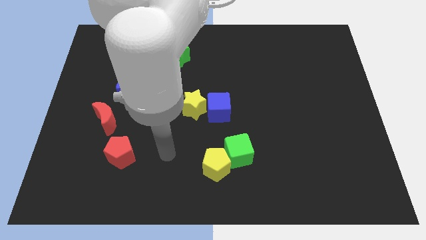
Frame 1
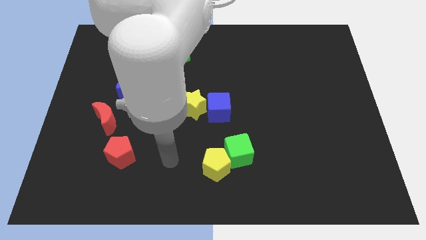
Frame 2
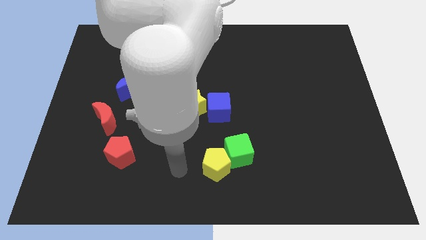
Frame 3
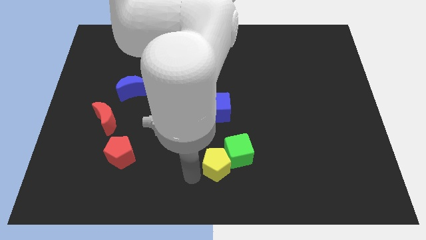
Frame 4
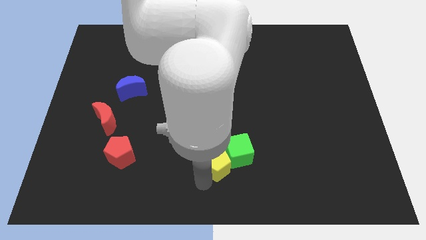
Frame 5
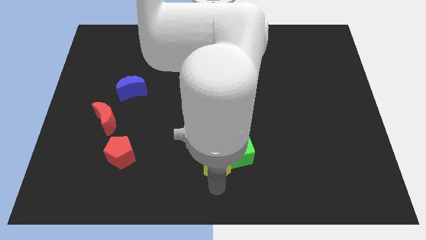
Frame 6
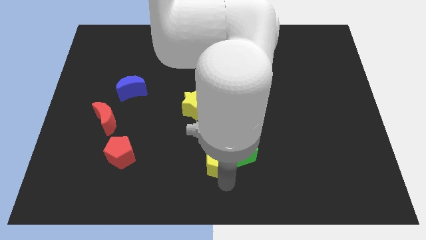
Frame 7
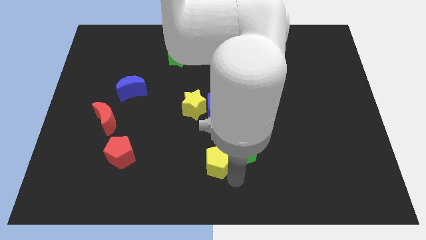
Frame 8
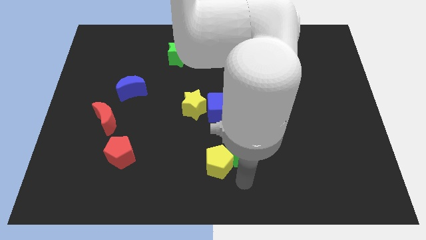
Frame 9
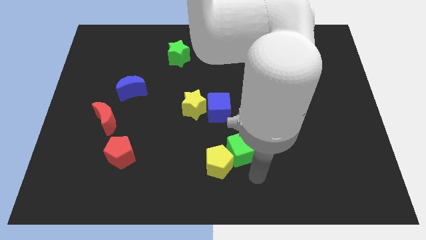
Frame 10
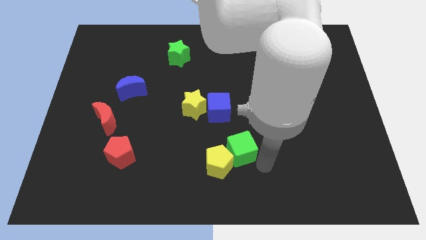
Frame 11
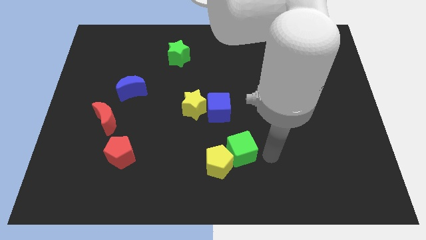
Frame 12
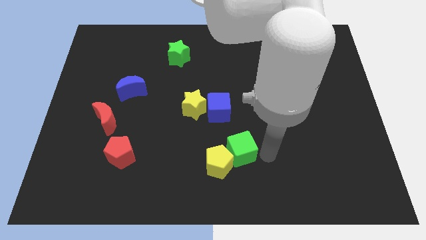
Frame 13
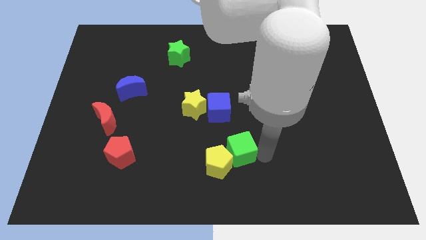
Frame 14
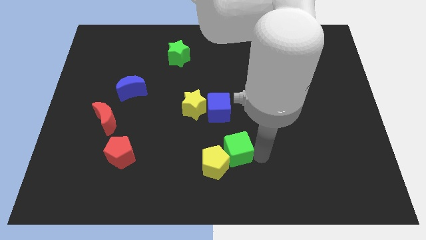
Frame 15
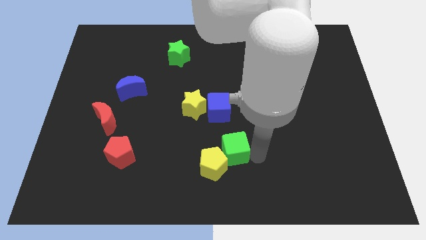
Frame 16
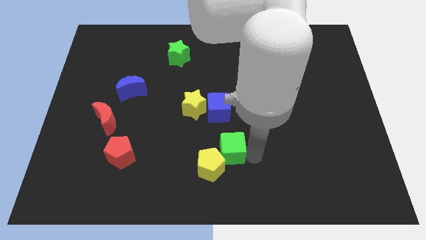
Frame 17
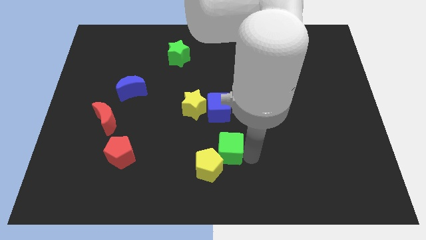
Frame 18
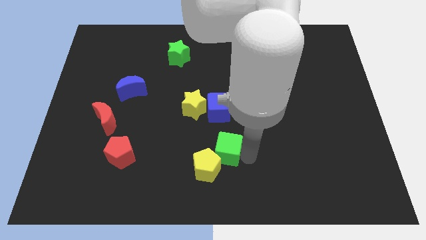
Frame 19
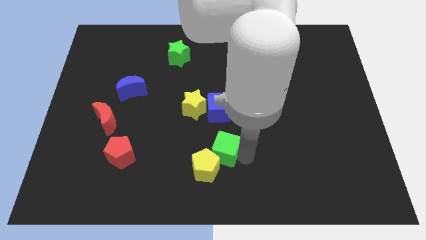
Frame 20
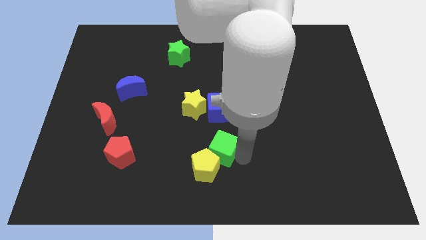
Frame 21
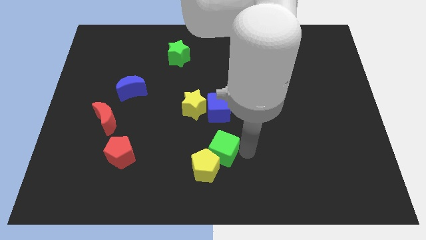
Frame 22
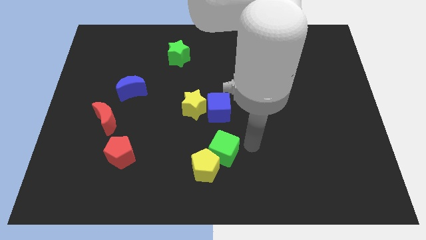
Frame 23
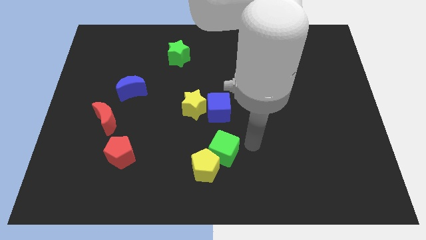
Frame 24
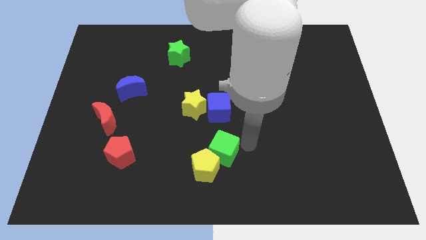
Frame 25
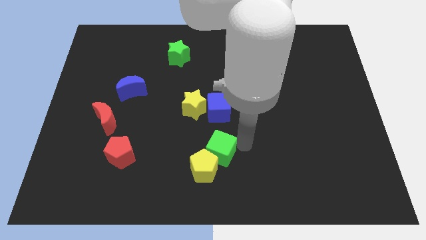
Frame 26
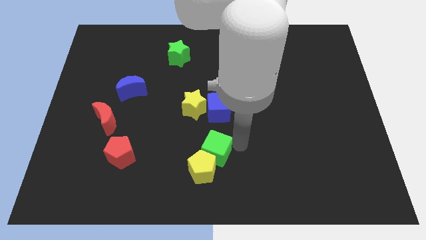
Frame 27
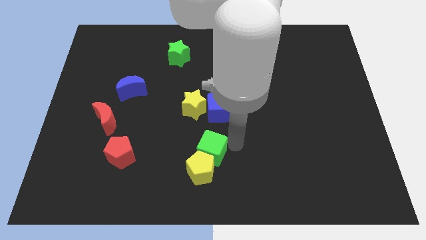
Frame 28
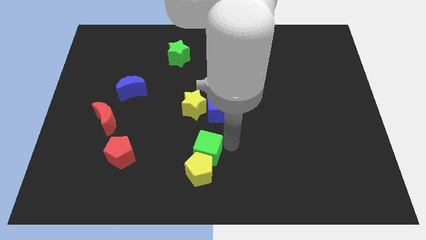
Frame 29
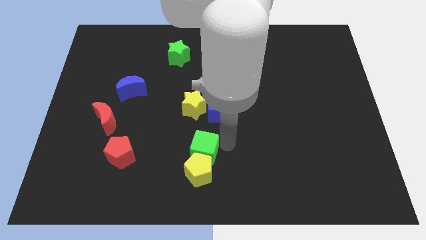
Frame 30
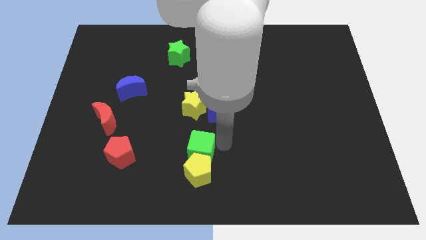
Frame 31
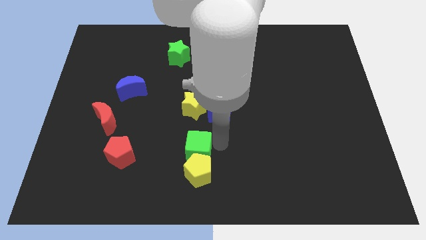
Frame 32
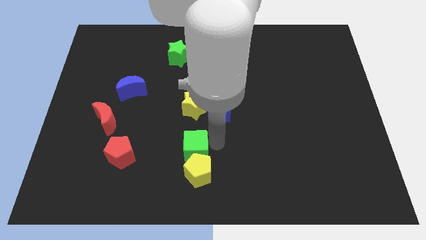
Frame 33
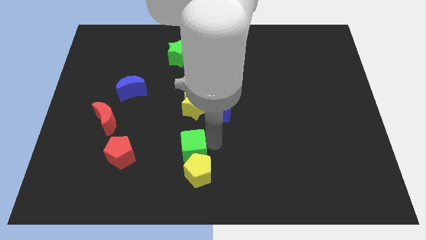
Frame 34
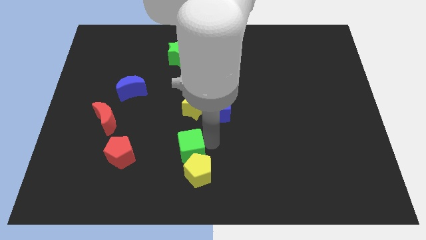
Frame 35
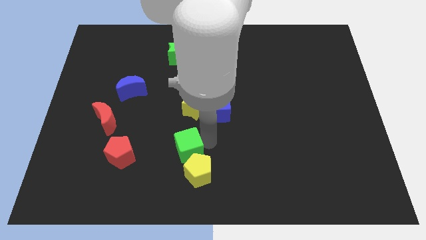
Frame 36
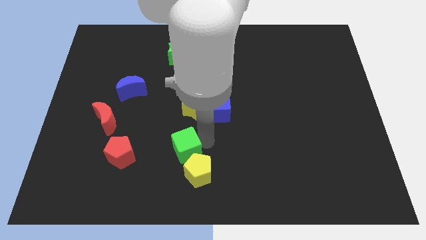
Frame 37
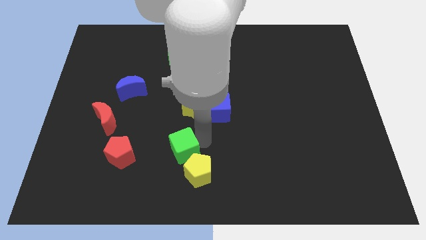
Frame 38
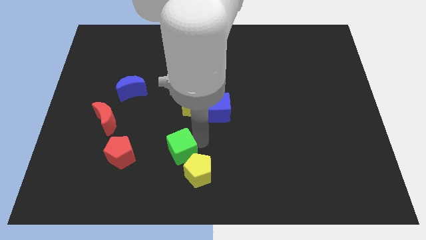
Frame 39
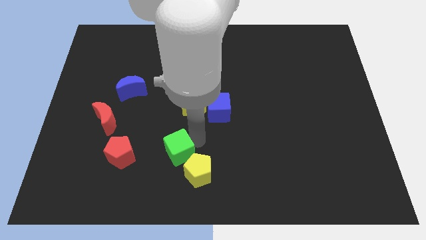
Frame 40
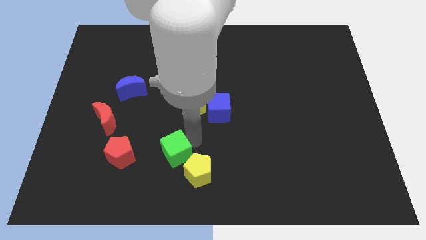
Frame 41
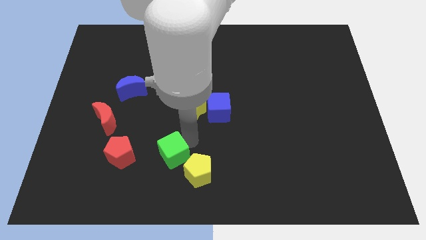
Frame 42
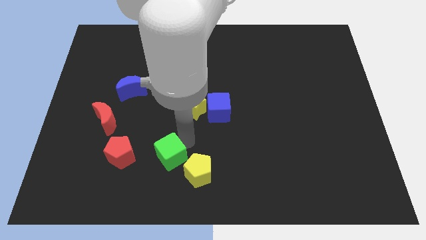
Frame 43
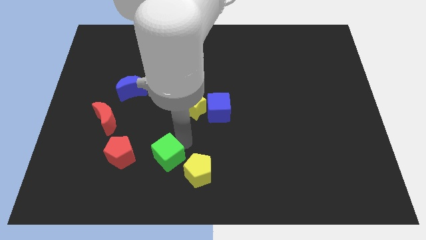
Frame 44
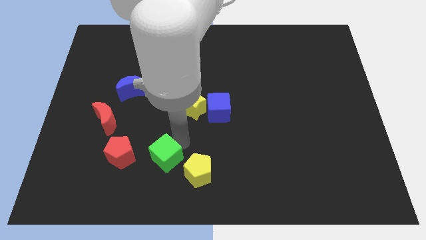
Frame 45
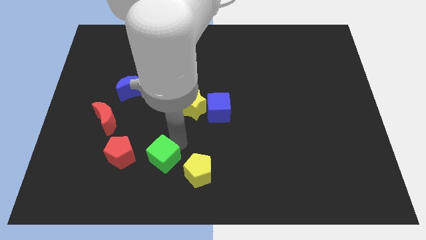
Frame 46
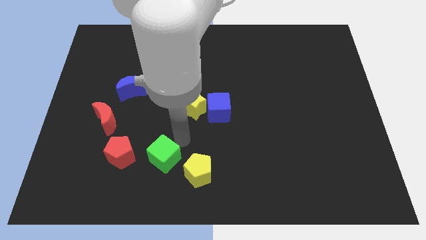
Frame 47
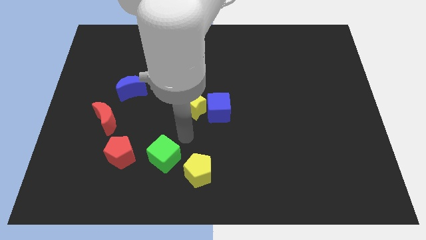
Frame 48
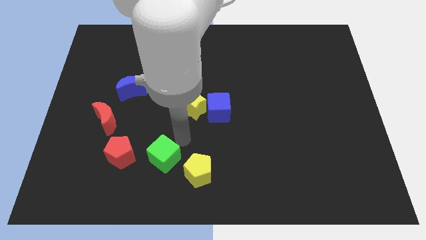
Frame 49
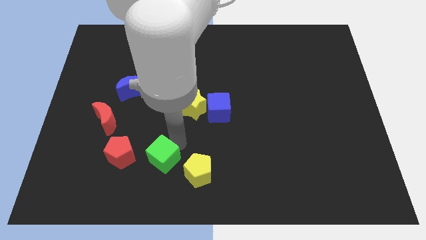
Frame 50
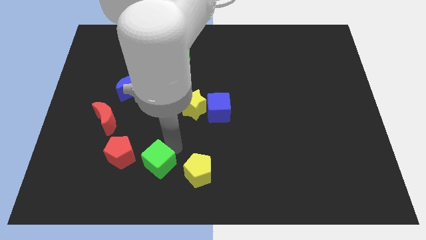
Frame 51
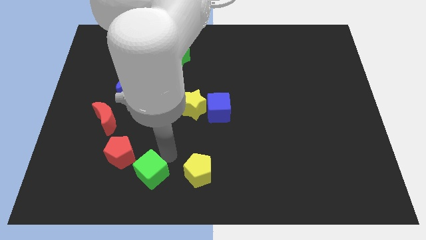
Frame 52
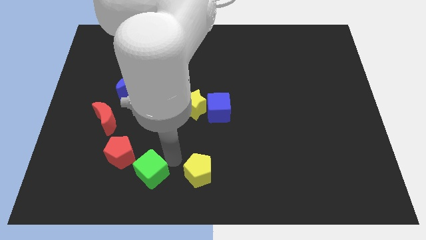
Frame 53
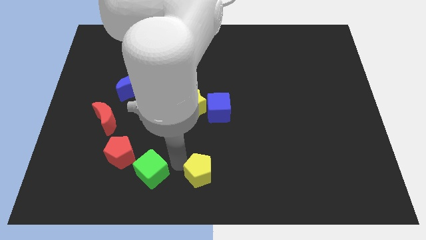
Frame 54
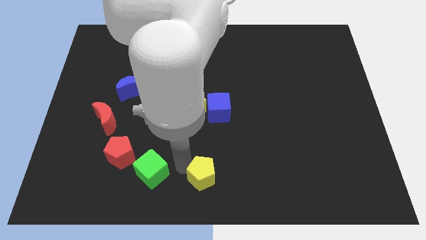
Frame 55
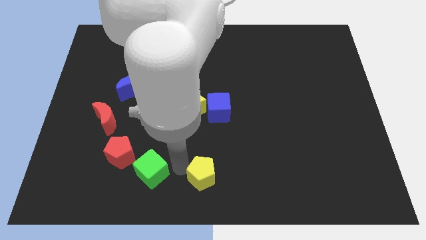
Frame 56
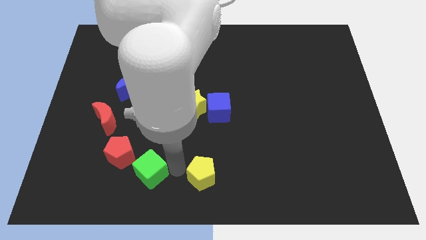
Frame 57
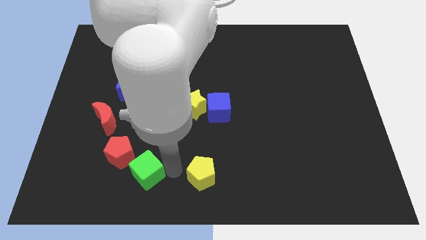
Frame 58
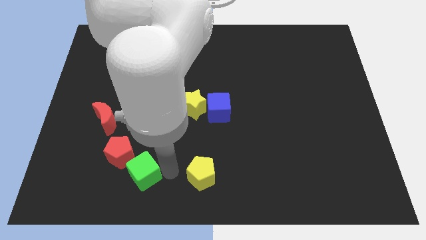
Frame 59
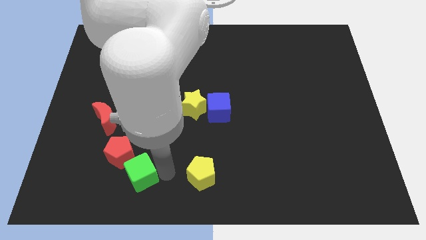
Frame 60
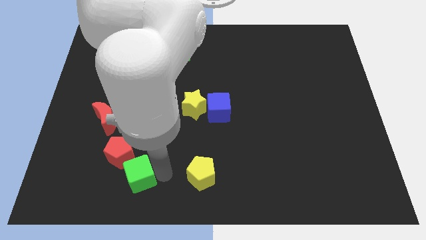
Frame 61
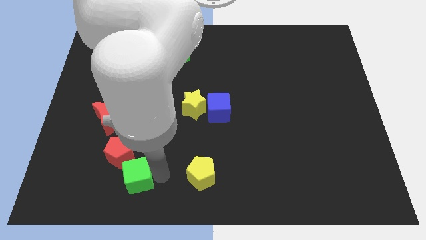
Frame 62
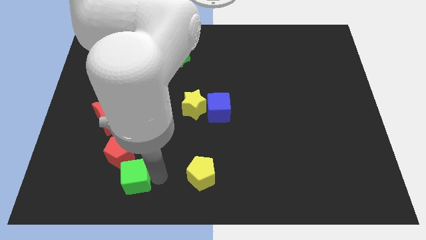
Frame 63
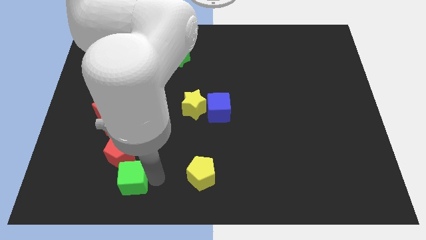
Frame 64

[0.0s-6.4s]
move the green cube left

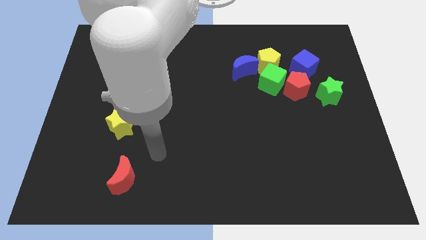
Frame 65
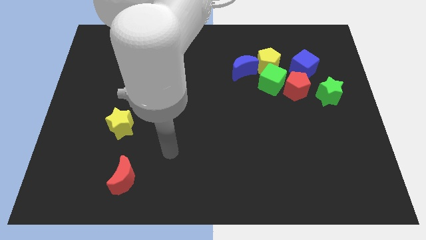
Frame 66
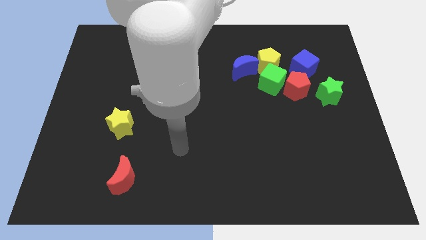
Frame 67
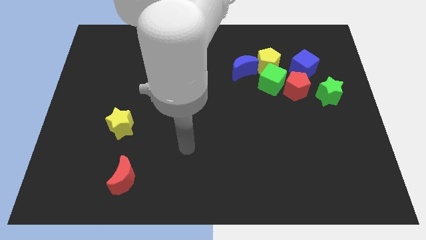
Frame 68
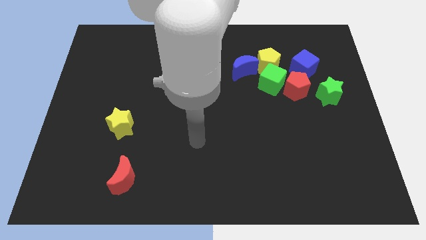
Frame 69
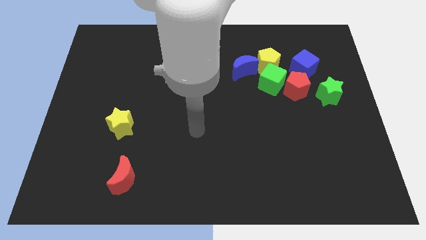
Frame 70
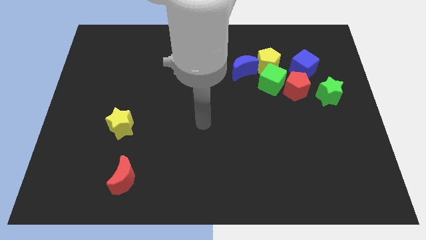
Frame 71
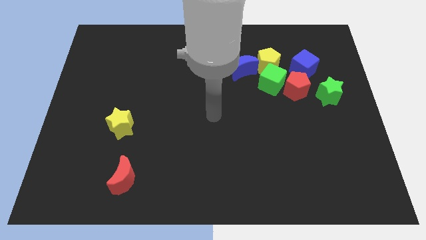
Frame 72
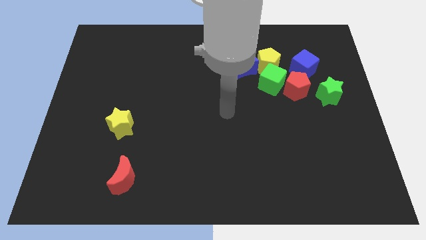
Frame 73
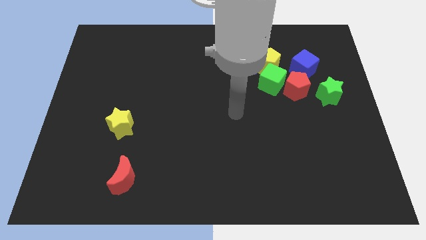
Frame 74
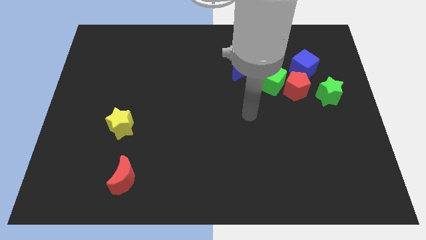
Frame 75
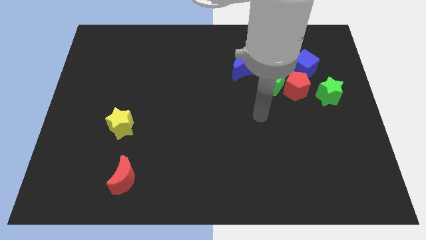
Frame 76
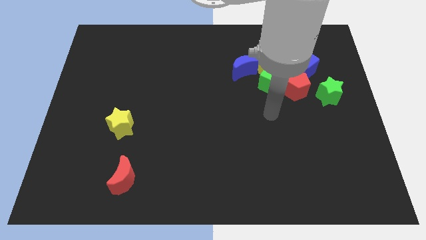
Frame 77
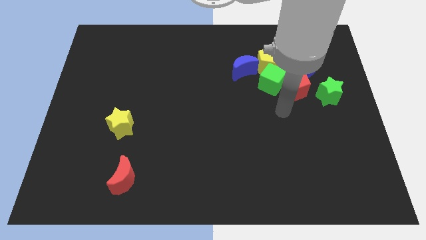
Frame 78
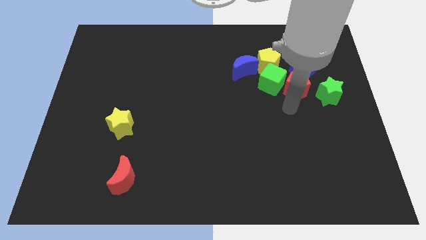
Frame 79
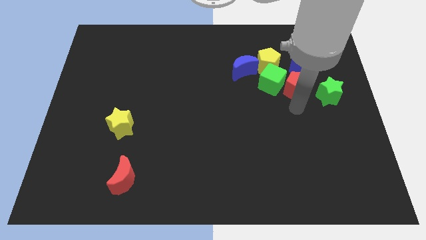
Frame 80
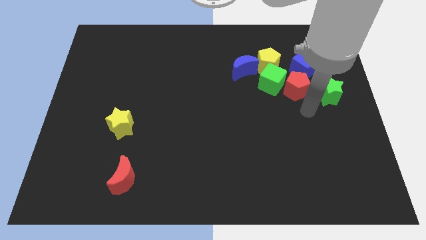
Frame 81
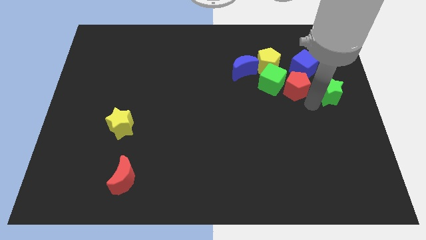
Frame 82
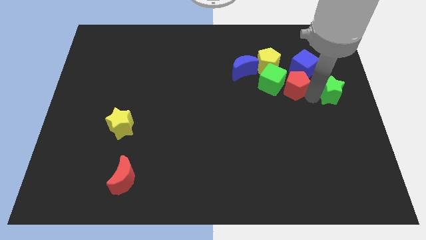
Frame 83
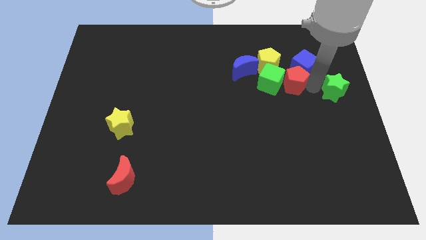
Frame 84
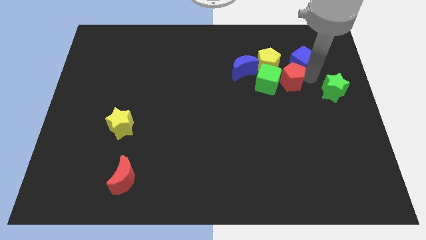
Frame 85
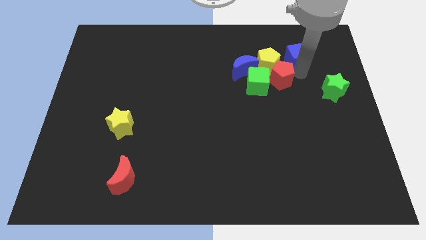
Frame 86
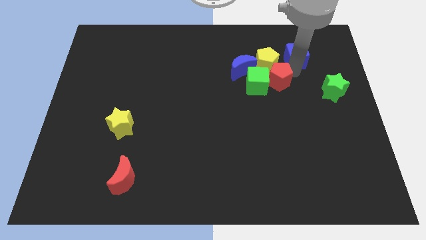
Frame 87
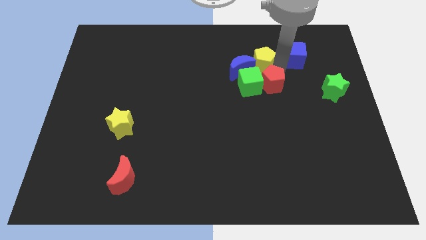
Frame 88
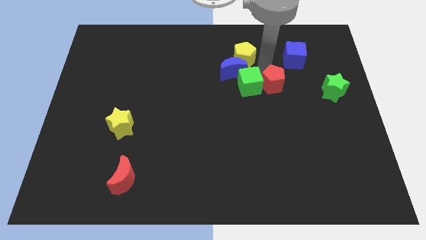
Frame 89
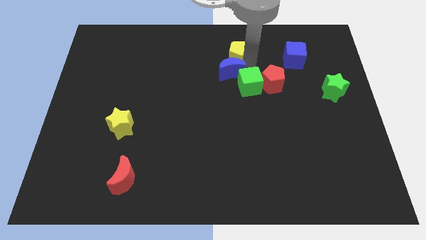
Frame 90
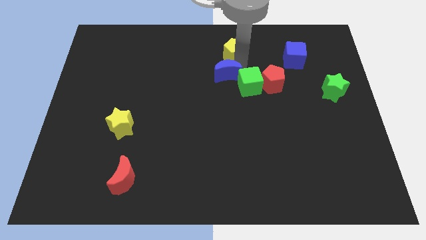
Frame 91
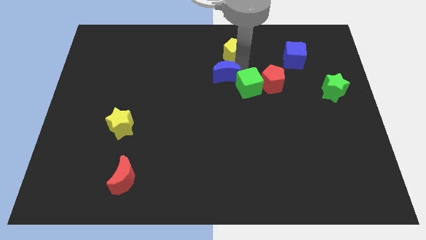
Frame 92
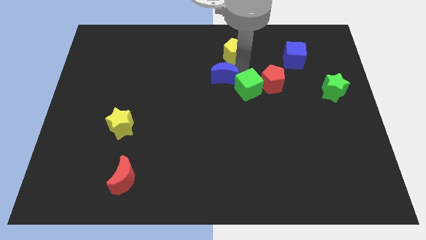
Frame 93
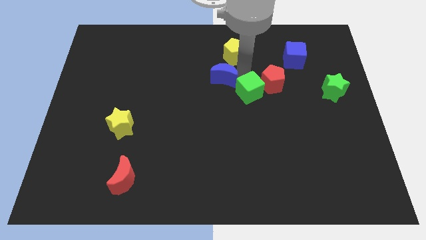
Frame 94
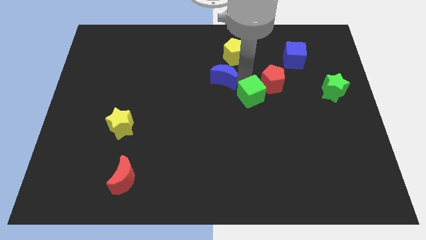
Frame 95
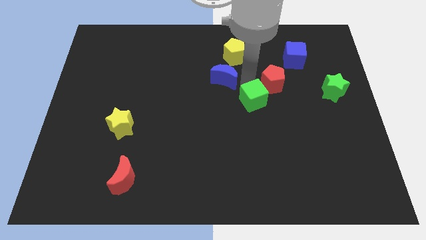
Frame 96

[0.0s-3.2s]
move the green cube a little bit downwards and then to the left
